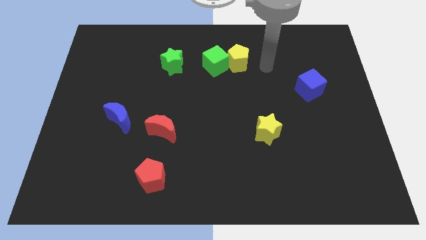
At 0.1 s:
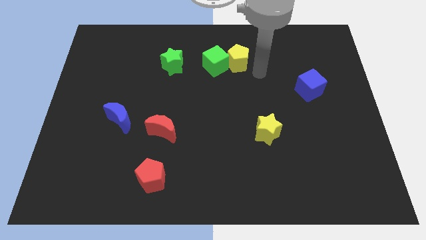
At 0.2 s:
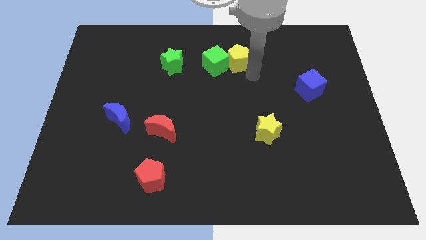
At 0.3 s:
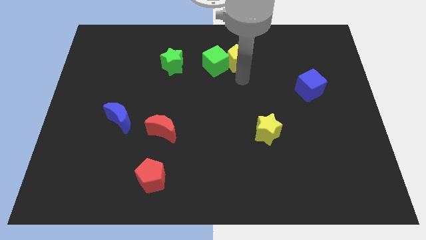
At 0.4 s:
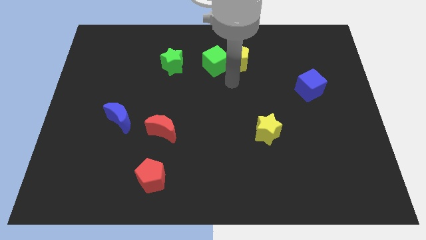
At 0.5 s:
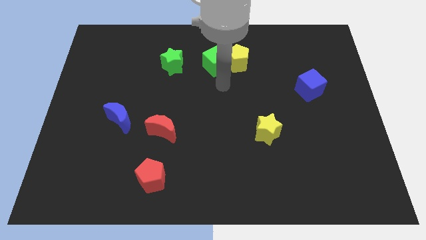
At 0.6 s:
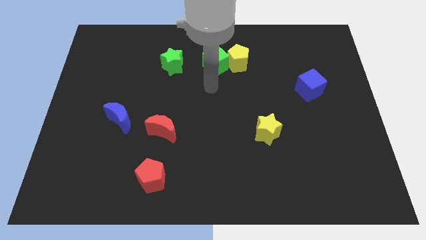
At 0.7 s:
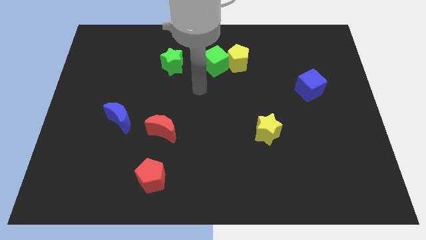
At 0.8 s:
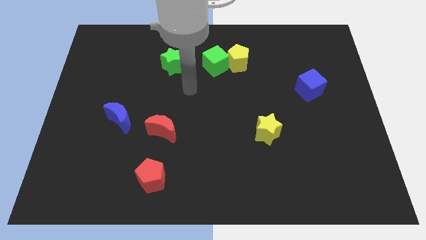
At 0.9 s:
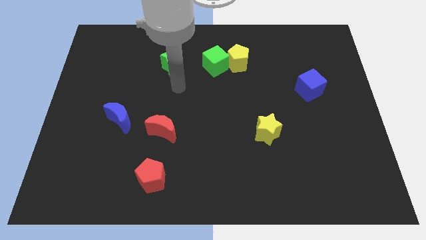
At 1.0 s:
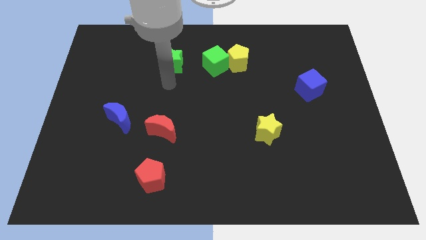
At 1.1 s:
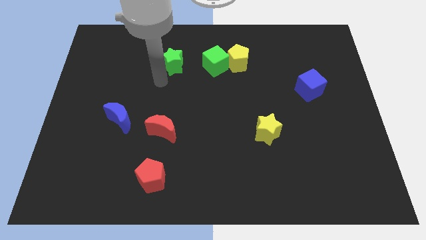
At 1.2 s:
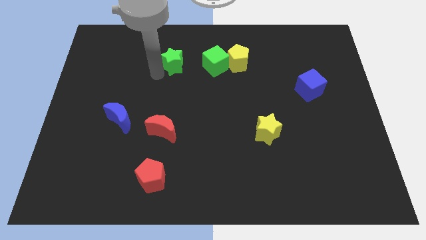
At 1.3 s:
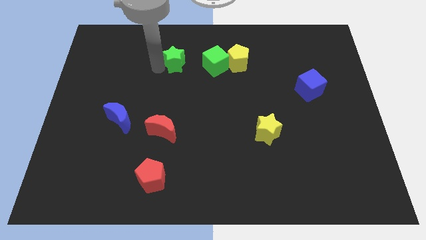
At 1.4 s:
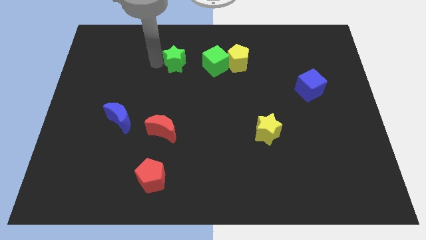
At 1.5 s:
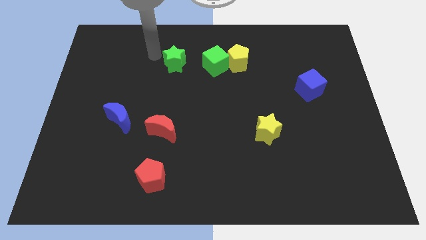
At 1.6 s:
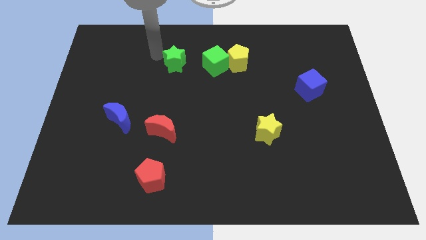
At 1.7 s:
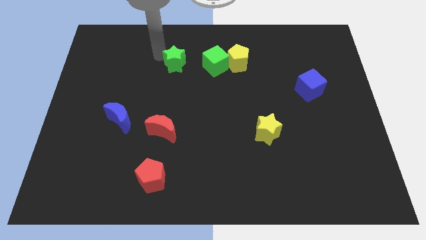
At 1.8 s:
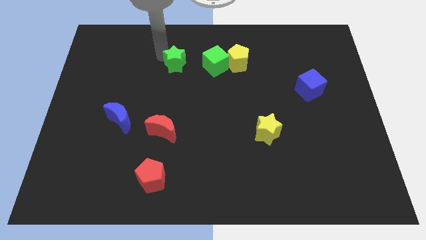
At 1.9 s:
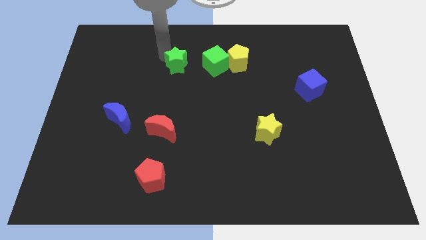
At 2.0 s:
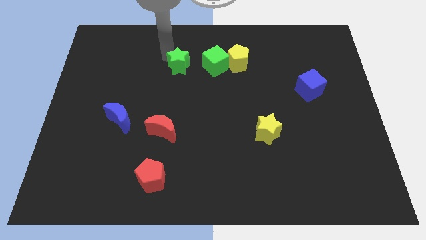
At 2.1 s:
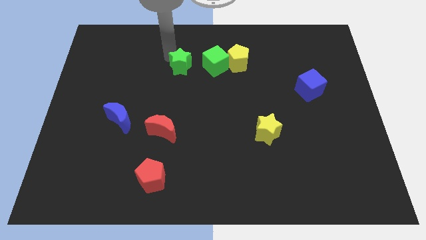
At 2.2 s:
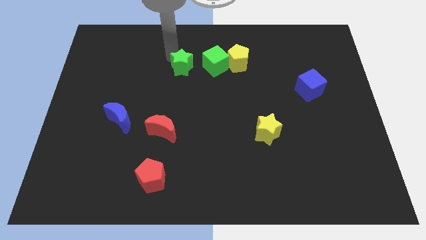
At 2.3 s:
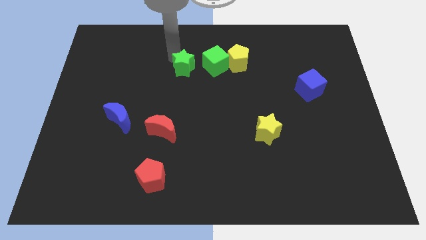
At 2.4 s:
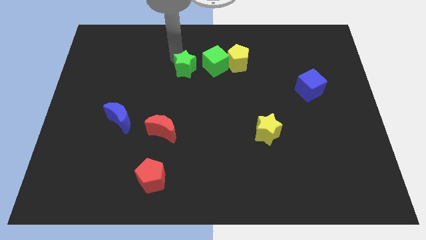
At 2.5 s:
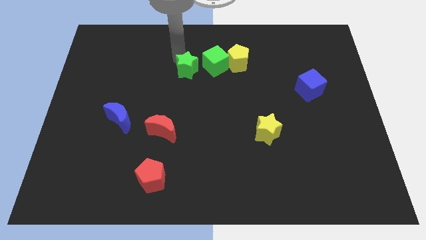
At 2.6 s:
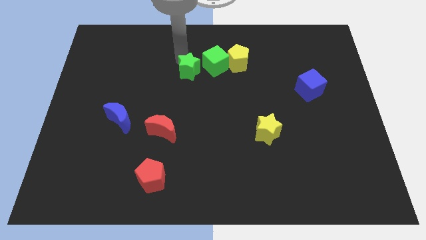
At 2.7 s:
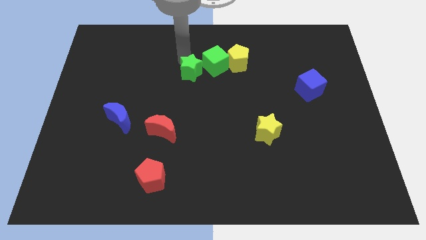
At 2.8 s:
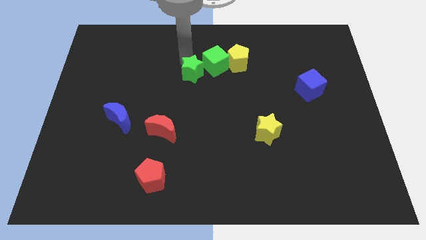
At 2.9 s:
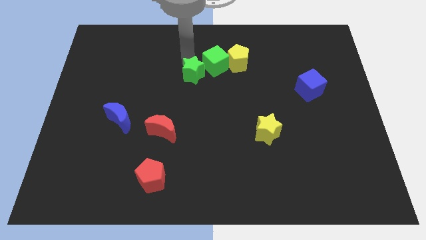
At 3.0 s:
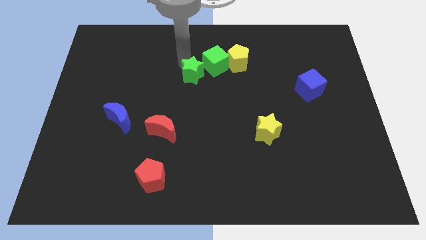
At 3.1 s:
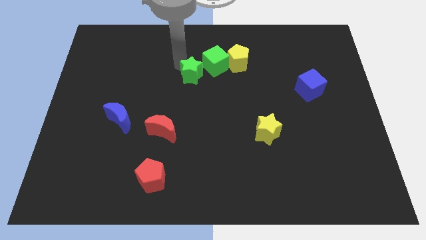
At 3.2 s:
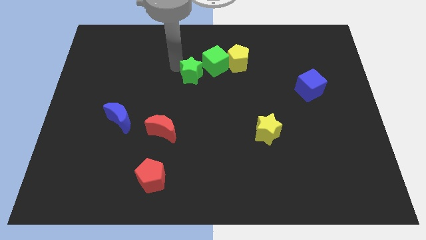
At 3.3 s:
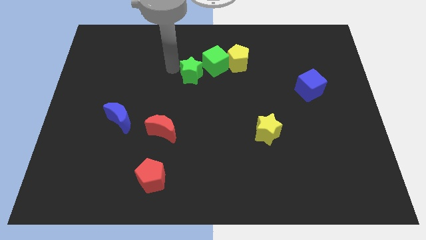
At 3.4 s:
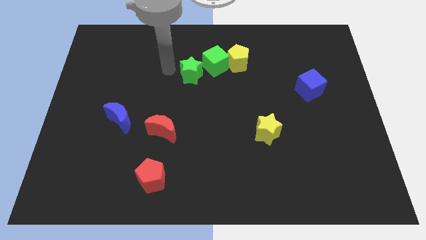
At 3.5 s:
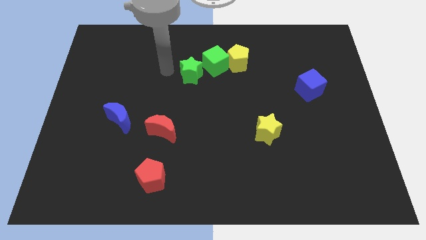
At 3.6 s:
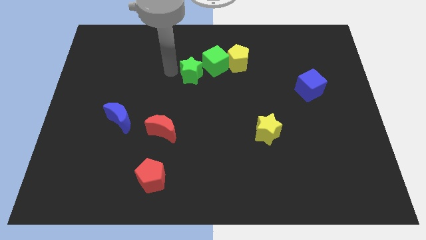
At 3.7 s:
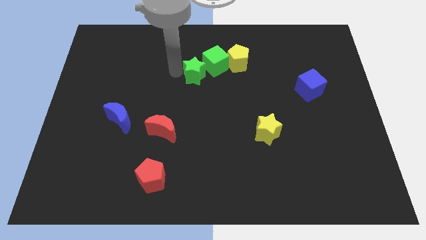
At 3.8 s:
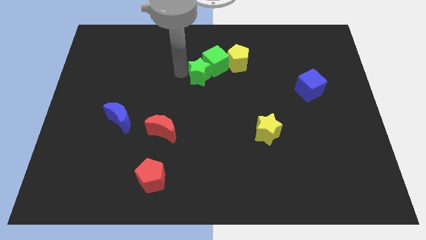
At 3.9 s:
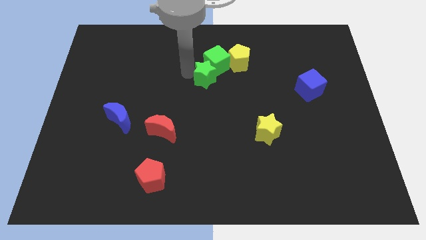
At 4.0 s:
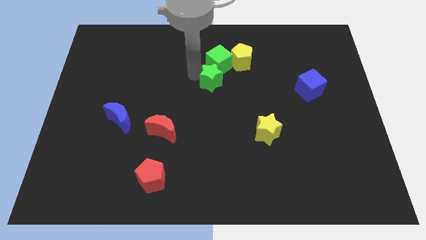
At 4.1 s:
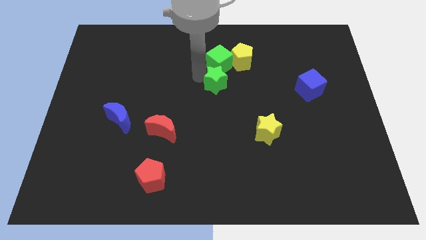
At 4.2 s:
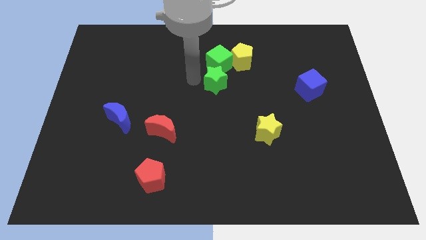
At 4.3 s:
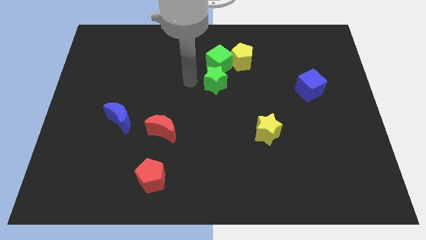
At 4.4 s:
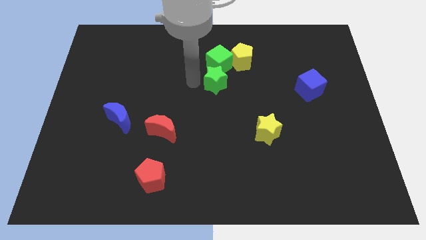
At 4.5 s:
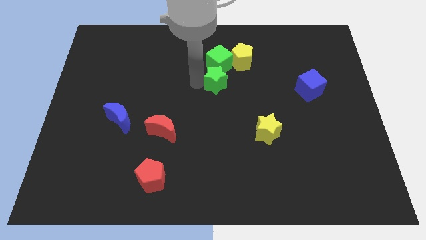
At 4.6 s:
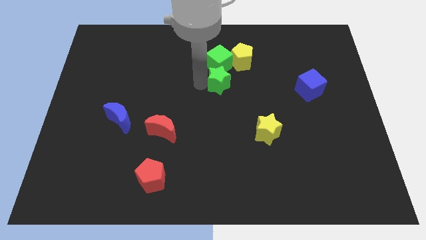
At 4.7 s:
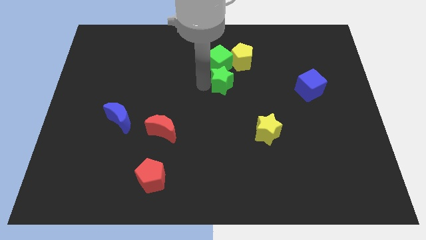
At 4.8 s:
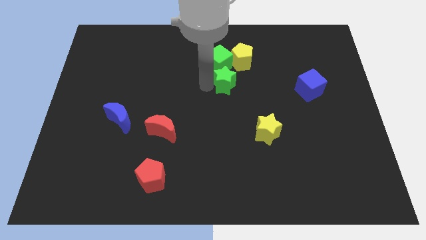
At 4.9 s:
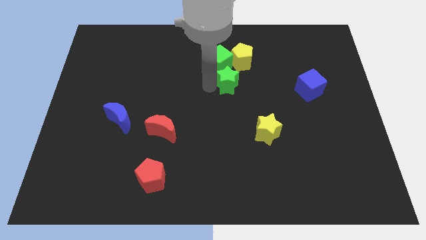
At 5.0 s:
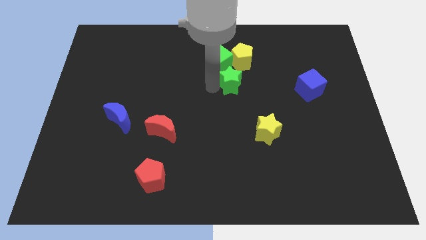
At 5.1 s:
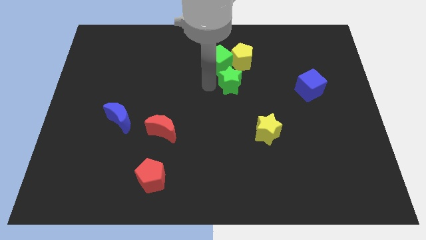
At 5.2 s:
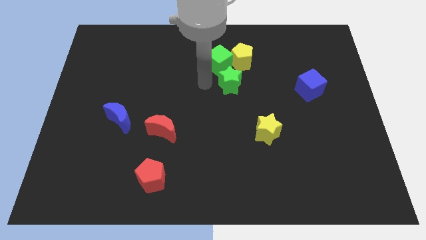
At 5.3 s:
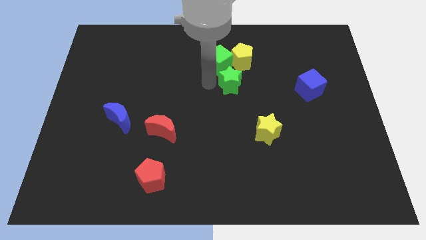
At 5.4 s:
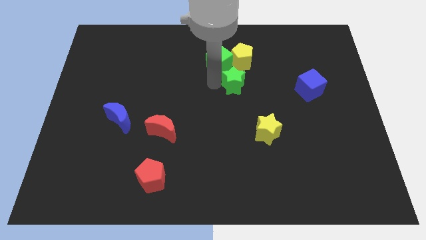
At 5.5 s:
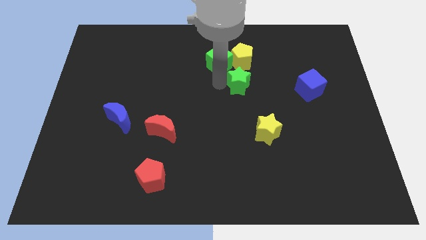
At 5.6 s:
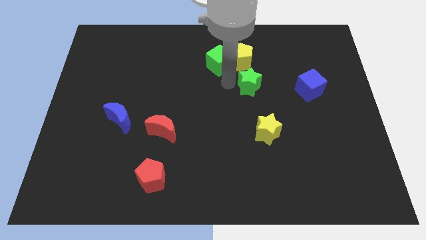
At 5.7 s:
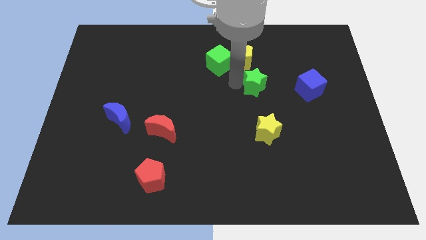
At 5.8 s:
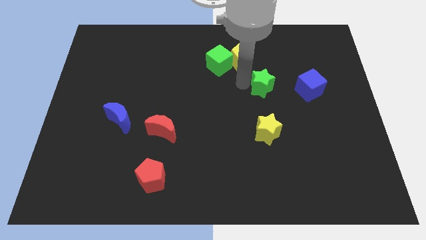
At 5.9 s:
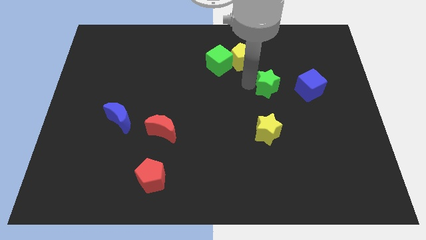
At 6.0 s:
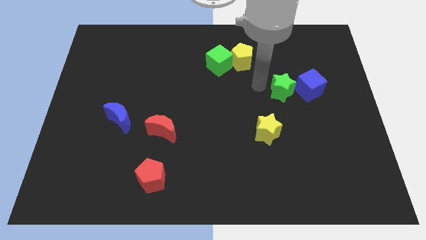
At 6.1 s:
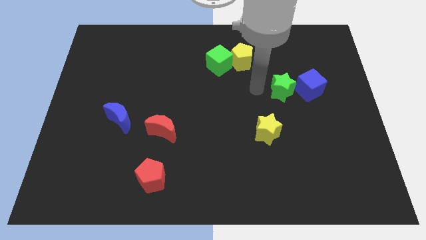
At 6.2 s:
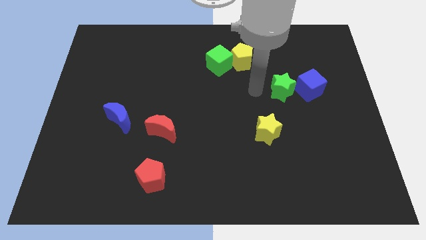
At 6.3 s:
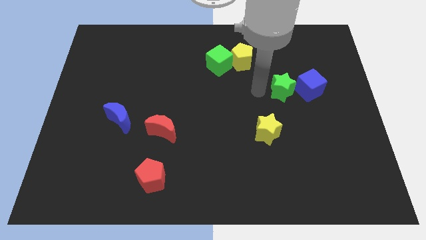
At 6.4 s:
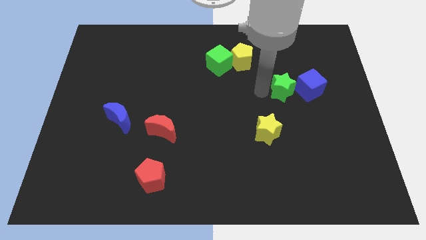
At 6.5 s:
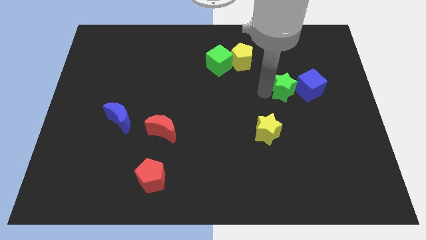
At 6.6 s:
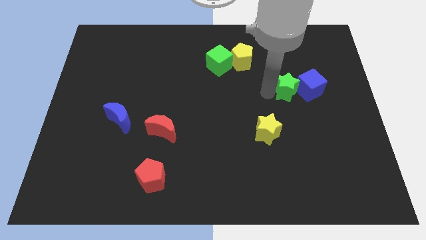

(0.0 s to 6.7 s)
push the green star towards the blue cube
